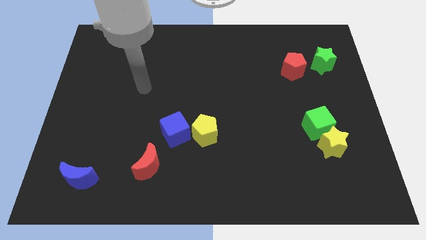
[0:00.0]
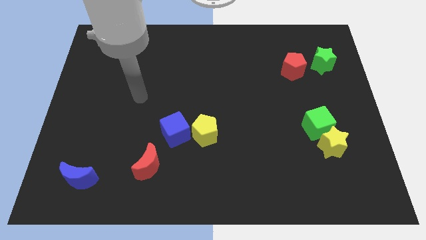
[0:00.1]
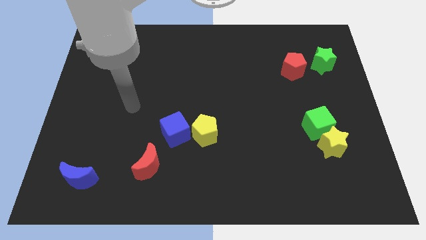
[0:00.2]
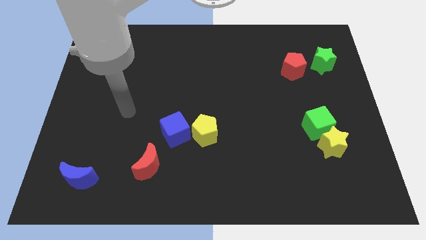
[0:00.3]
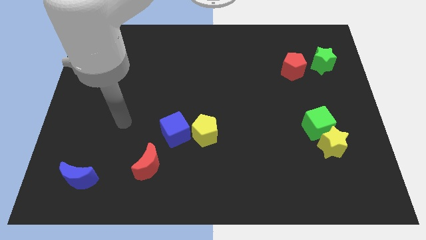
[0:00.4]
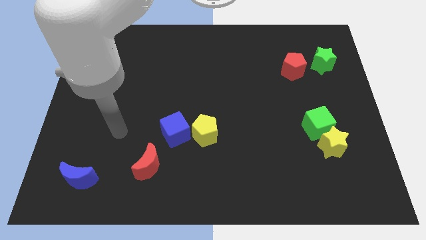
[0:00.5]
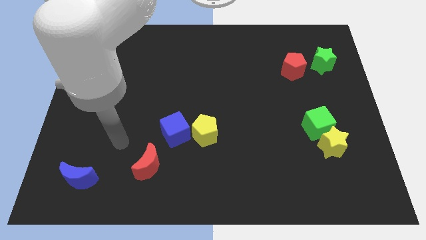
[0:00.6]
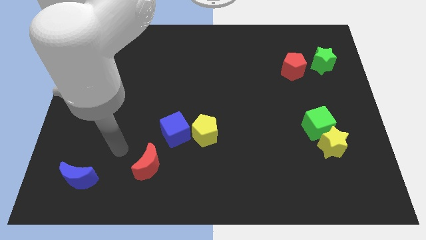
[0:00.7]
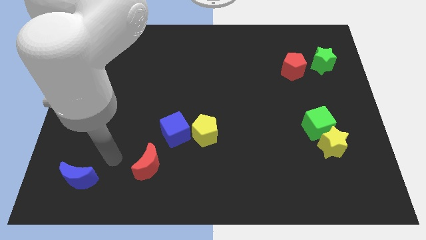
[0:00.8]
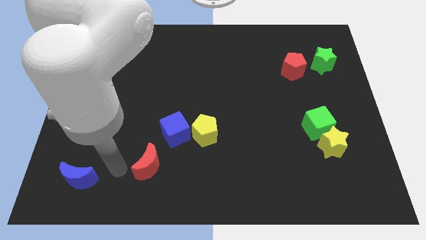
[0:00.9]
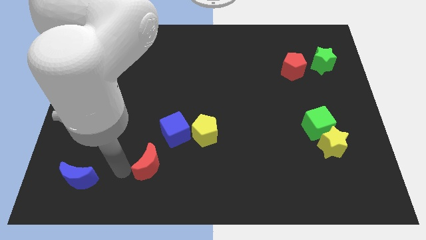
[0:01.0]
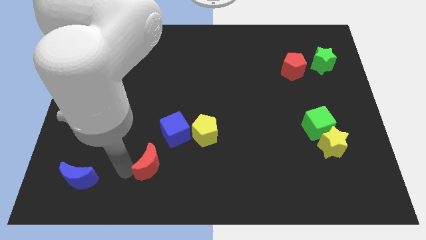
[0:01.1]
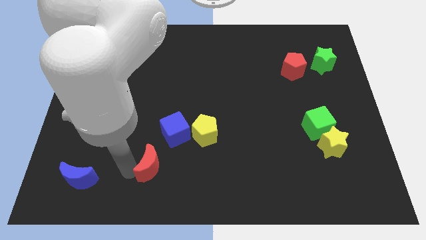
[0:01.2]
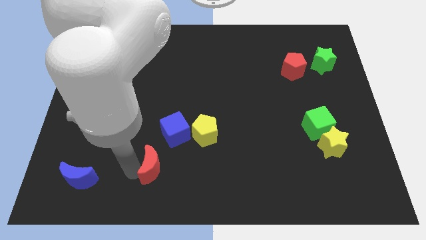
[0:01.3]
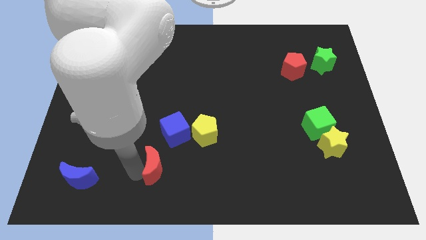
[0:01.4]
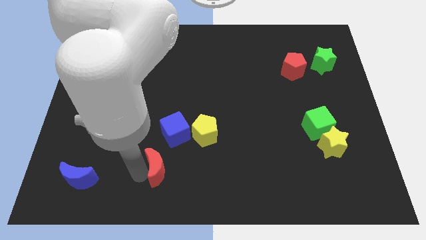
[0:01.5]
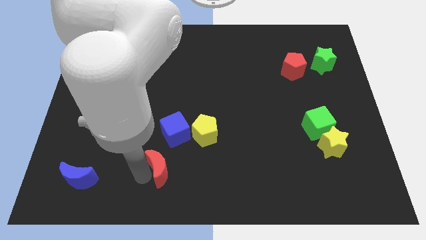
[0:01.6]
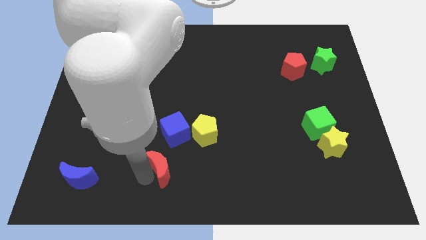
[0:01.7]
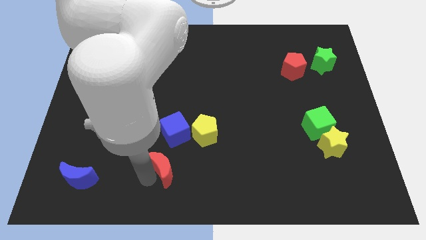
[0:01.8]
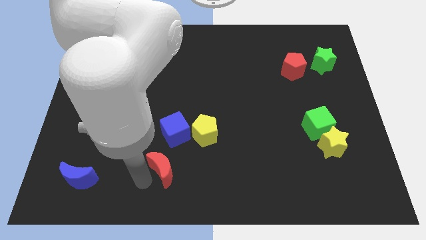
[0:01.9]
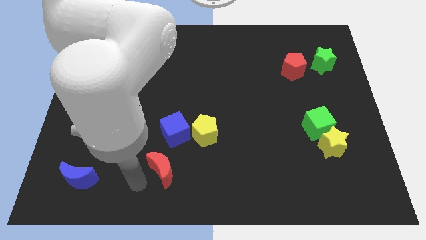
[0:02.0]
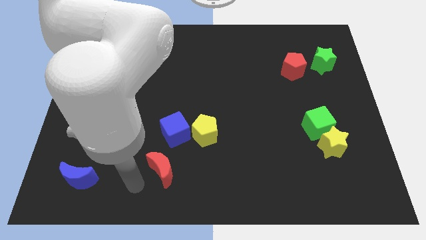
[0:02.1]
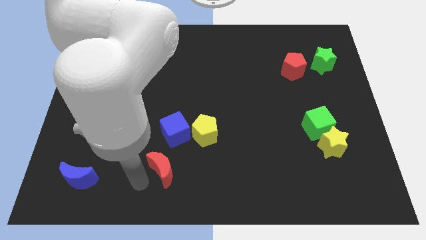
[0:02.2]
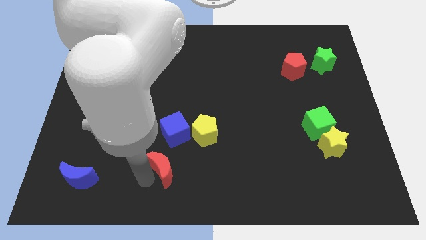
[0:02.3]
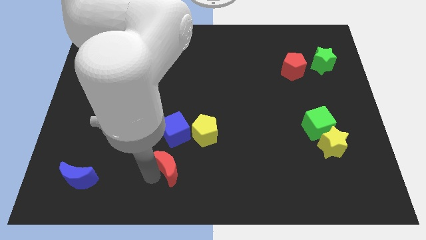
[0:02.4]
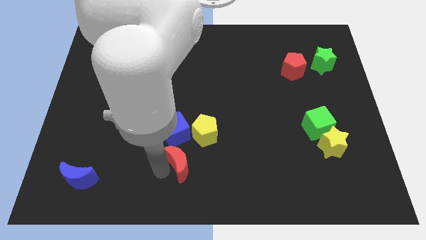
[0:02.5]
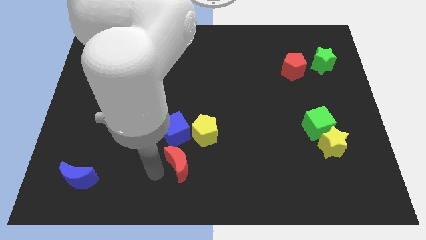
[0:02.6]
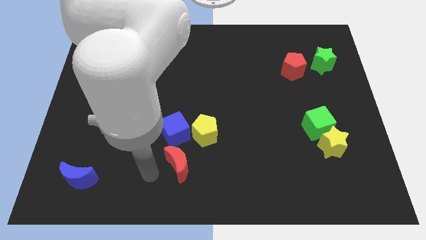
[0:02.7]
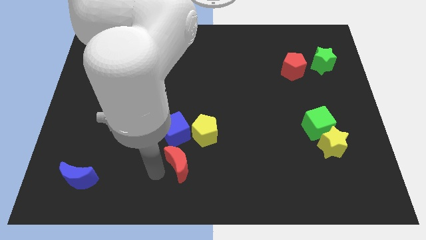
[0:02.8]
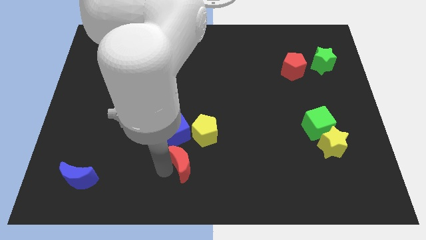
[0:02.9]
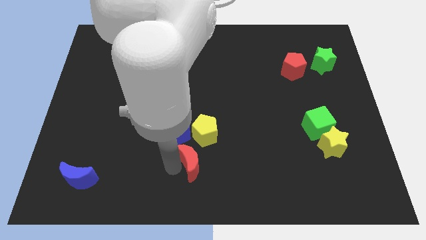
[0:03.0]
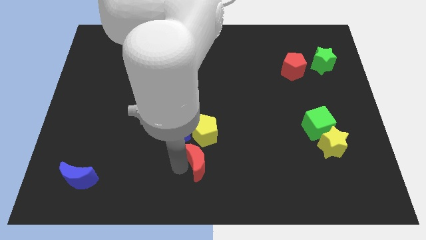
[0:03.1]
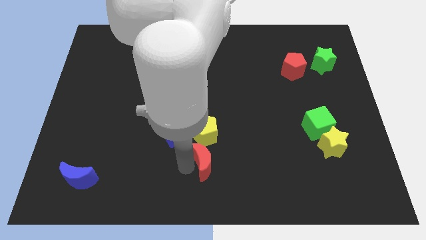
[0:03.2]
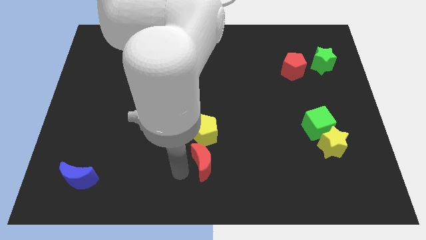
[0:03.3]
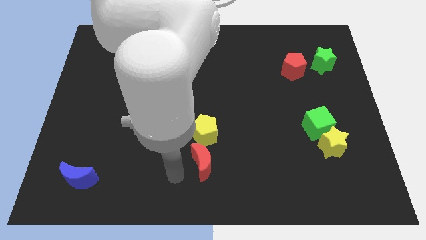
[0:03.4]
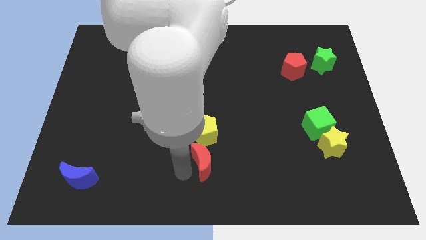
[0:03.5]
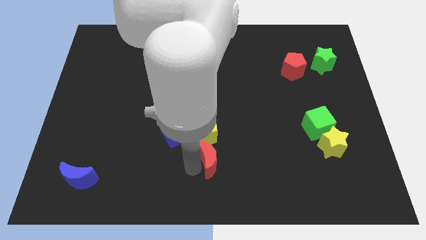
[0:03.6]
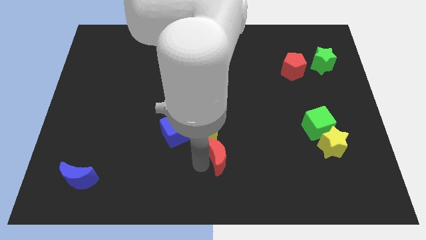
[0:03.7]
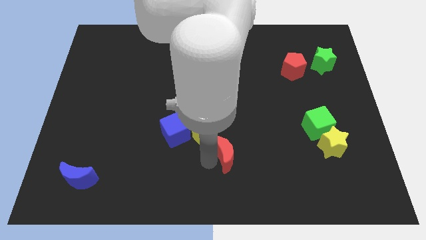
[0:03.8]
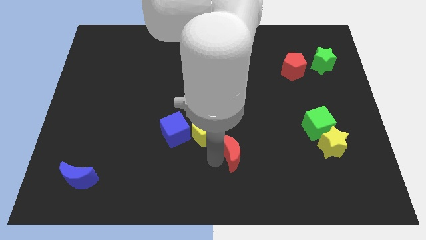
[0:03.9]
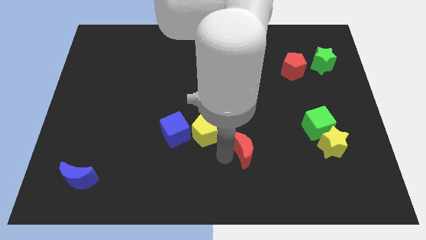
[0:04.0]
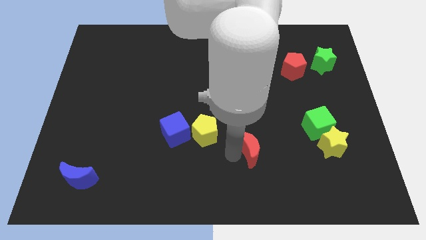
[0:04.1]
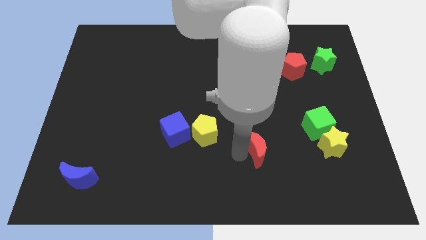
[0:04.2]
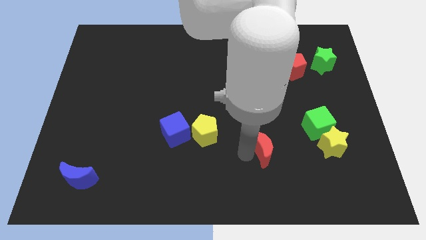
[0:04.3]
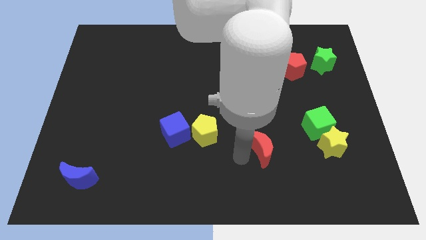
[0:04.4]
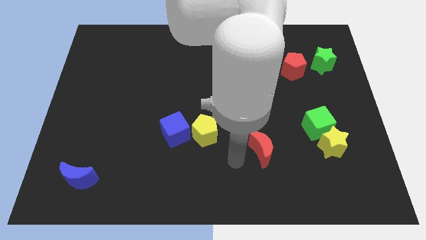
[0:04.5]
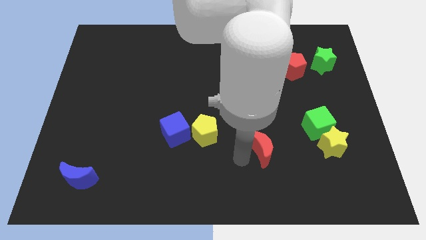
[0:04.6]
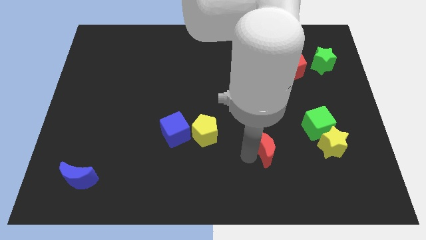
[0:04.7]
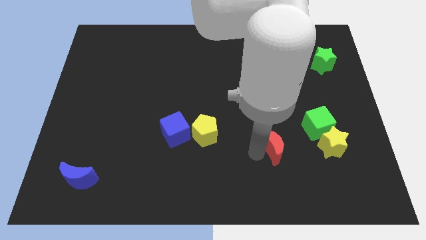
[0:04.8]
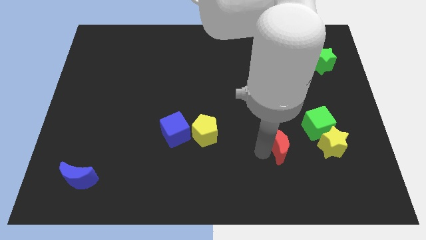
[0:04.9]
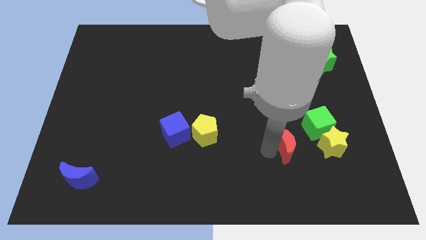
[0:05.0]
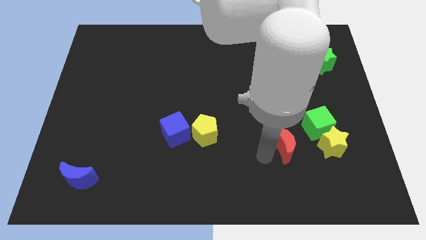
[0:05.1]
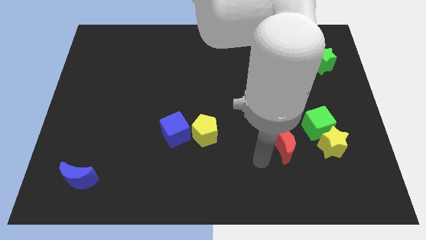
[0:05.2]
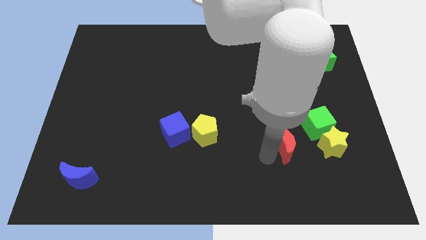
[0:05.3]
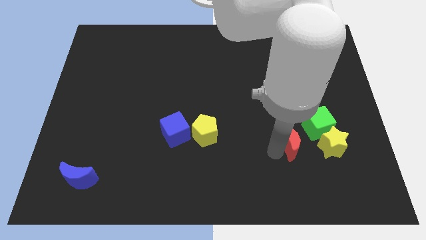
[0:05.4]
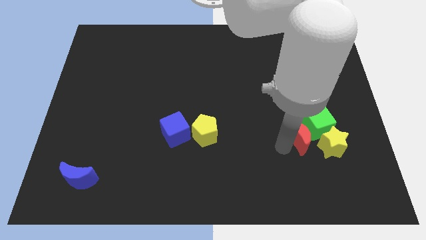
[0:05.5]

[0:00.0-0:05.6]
push the red moon towards the green cube
